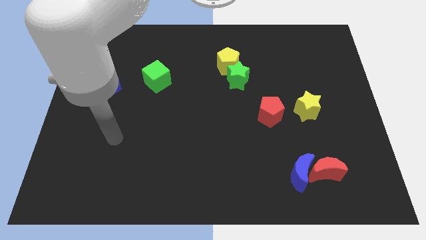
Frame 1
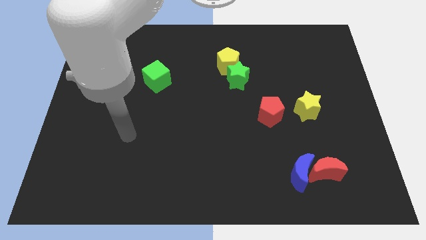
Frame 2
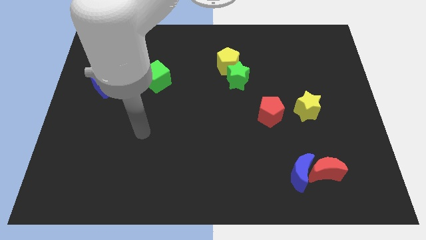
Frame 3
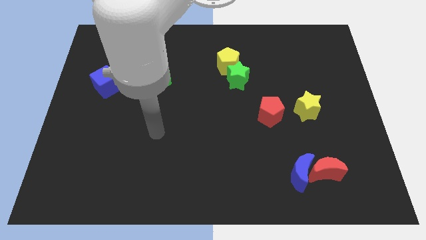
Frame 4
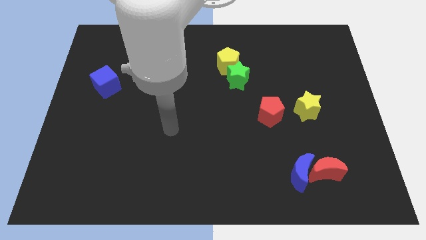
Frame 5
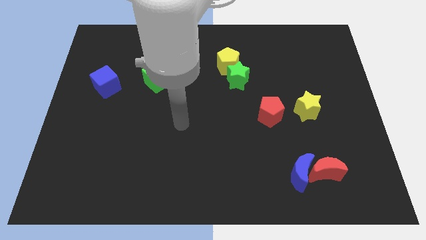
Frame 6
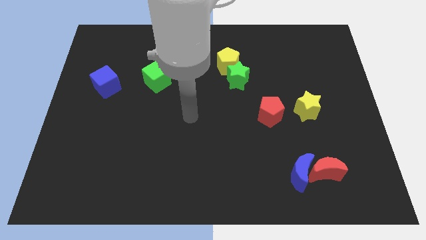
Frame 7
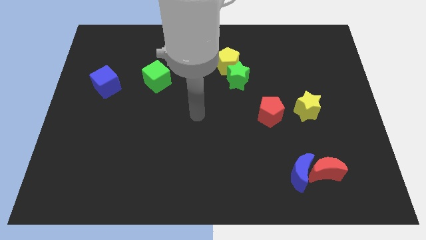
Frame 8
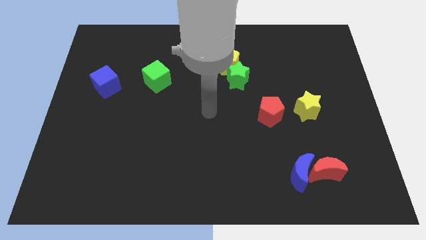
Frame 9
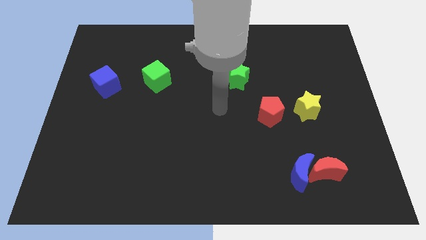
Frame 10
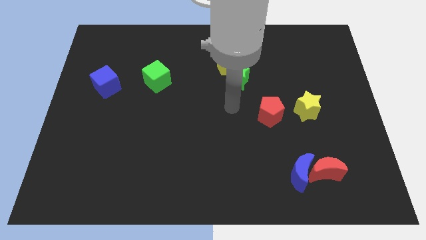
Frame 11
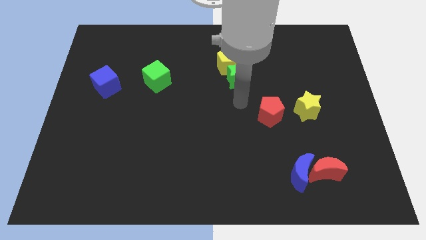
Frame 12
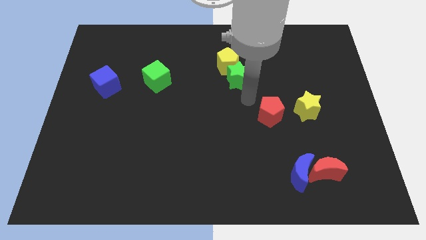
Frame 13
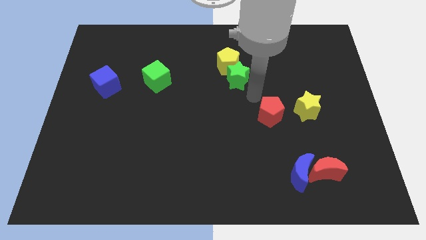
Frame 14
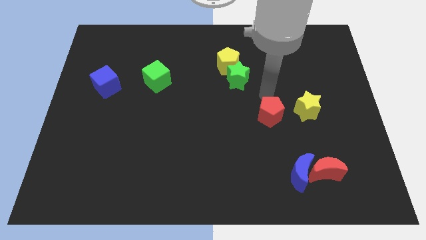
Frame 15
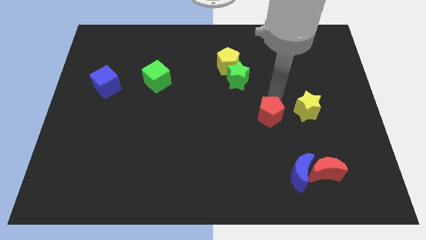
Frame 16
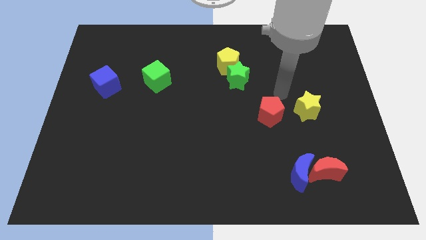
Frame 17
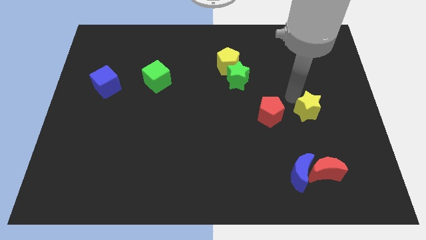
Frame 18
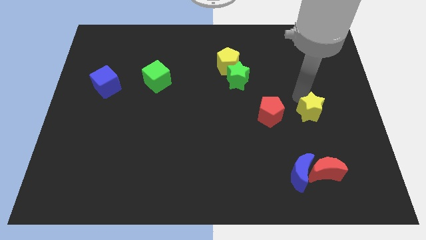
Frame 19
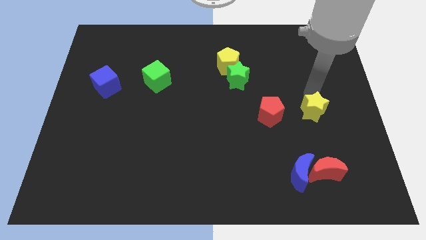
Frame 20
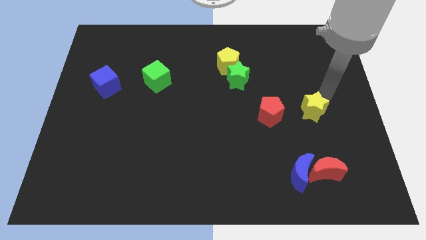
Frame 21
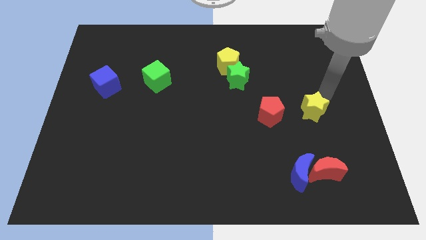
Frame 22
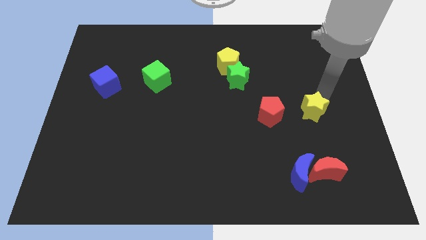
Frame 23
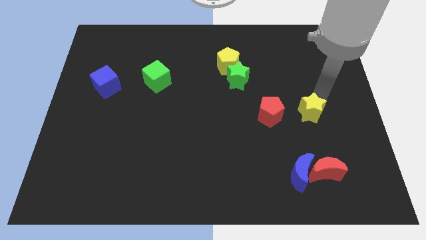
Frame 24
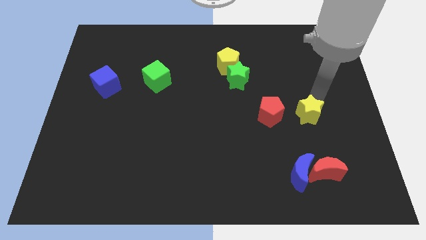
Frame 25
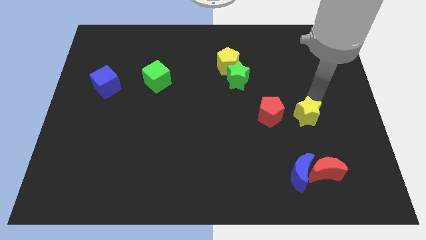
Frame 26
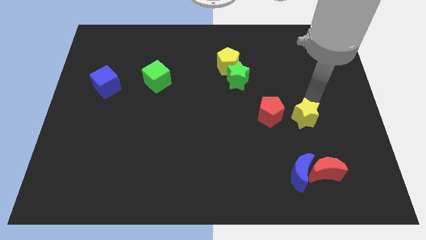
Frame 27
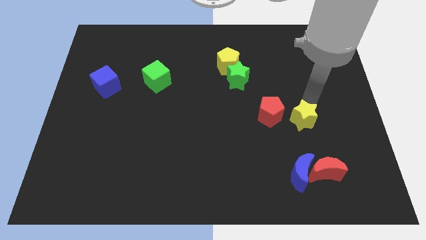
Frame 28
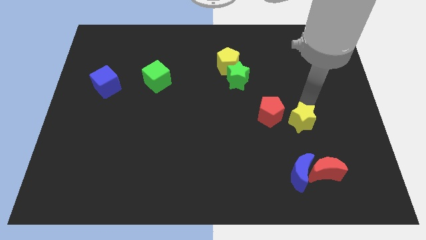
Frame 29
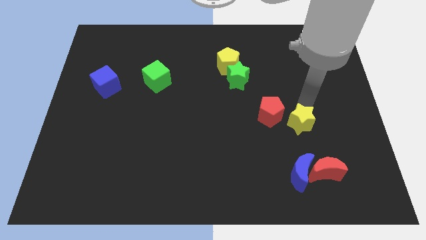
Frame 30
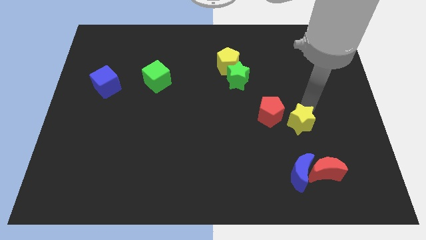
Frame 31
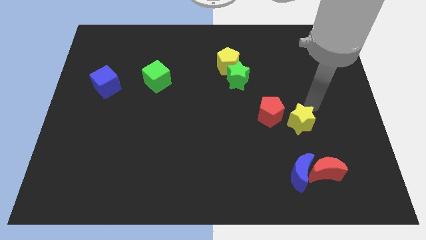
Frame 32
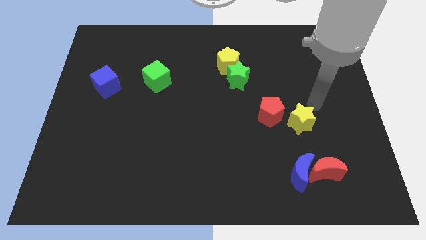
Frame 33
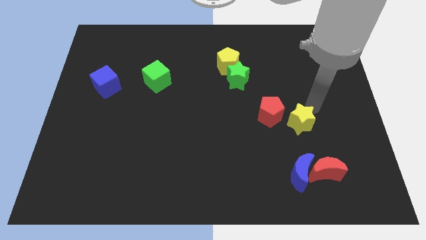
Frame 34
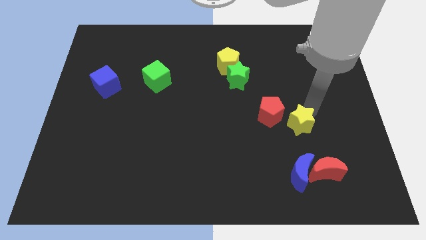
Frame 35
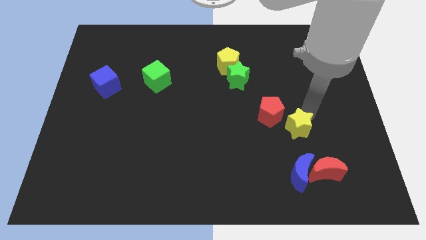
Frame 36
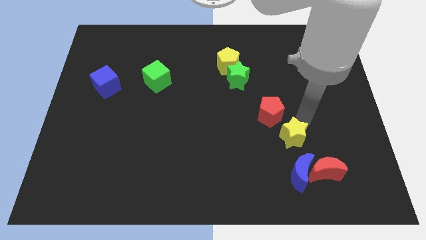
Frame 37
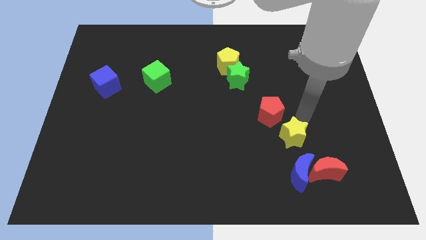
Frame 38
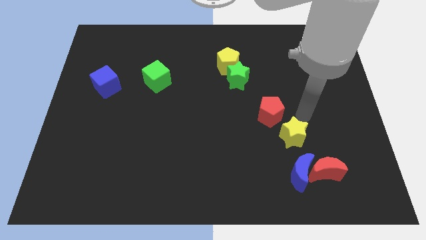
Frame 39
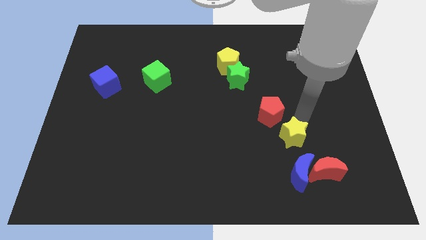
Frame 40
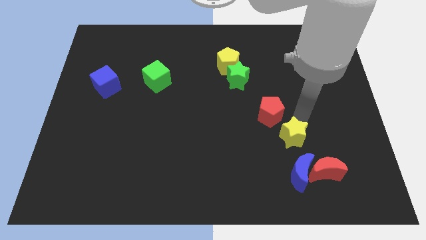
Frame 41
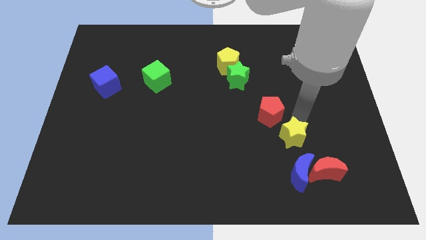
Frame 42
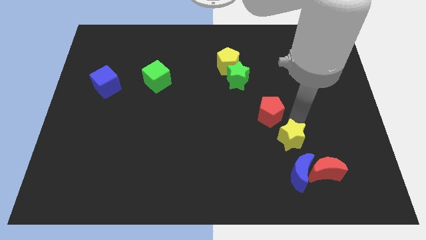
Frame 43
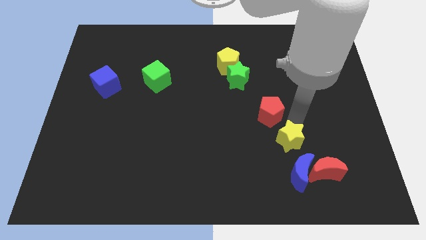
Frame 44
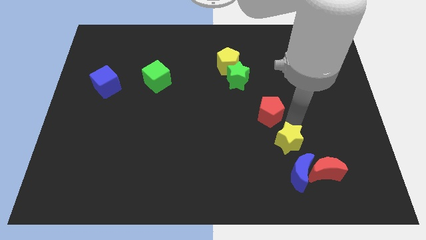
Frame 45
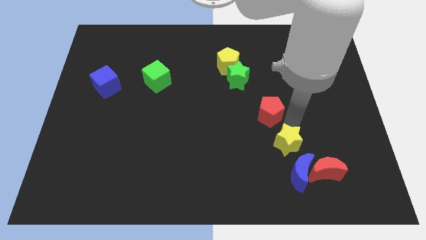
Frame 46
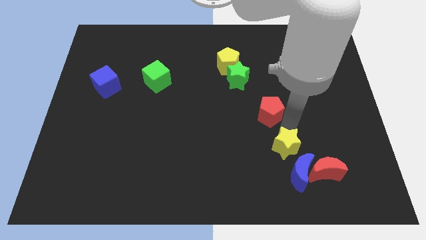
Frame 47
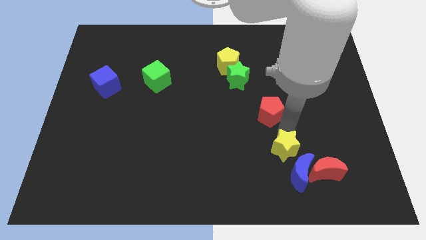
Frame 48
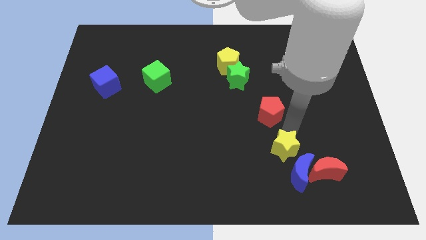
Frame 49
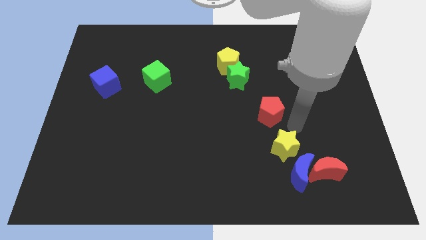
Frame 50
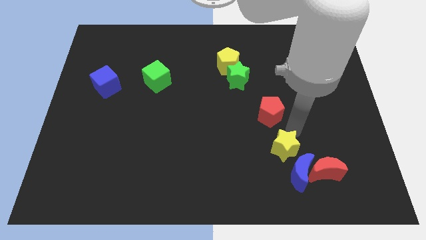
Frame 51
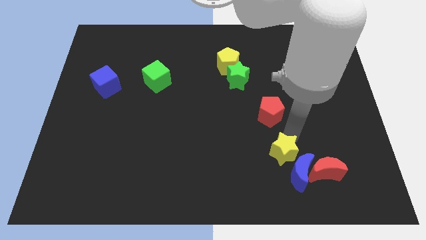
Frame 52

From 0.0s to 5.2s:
slide the yellow star left of the red moon

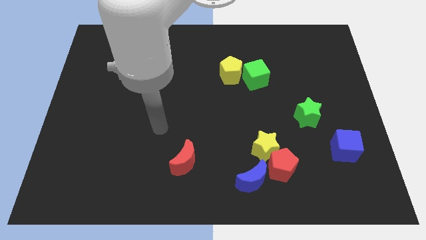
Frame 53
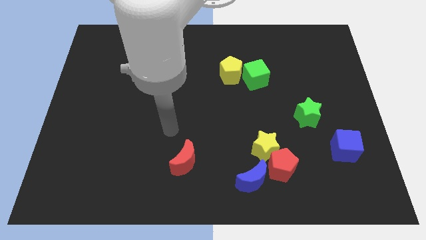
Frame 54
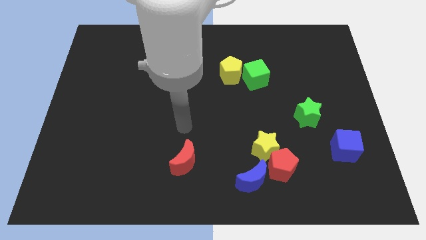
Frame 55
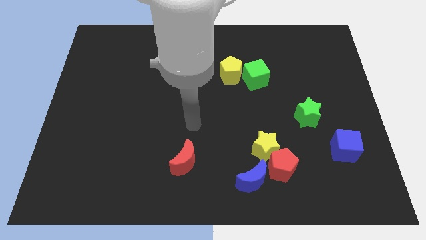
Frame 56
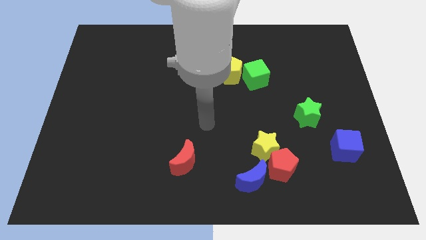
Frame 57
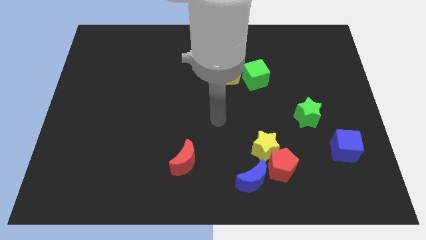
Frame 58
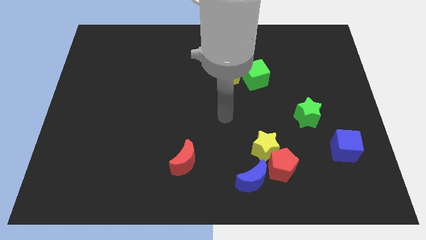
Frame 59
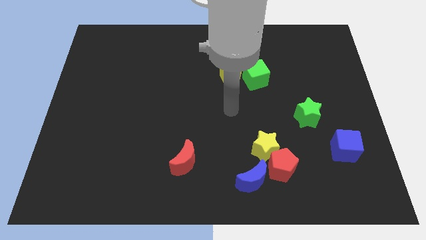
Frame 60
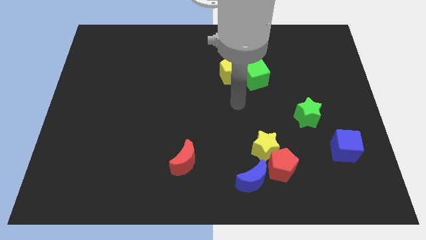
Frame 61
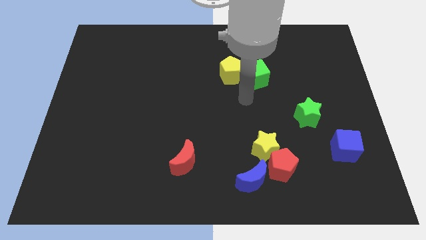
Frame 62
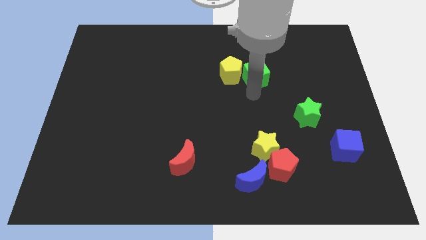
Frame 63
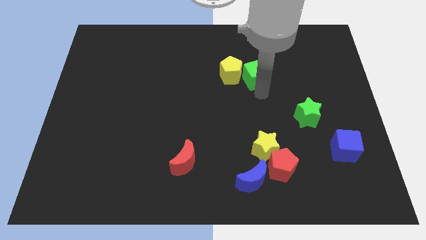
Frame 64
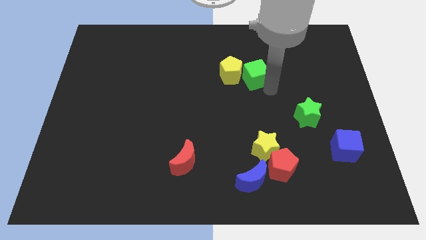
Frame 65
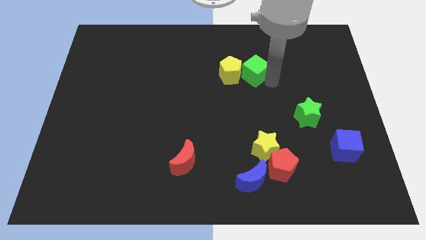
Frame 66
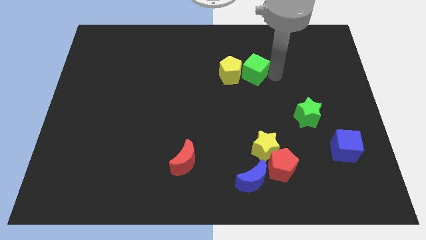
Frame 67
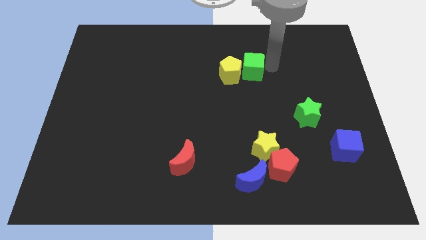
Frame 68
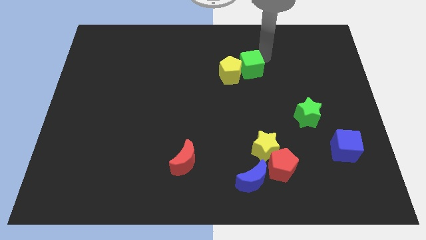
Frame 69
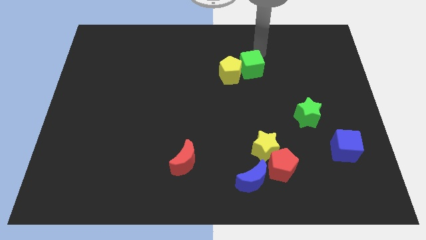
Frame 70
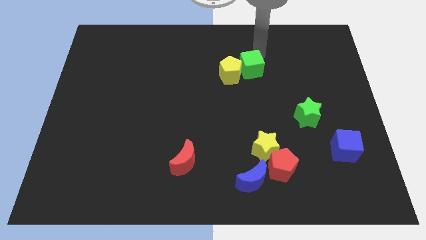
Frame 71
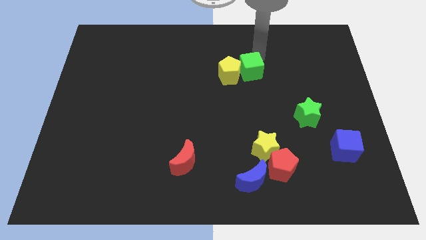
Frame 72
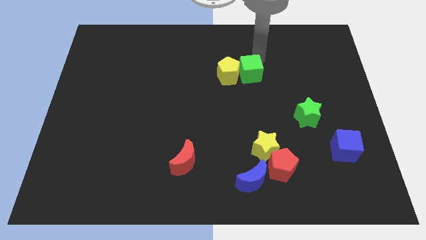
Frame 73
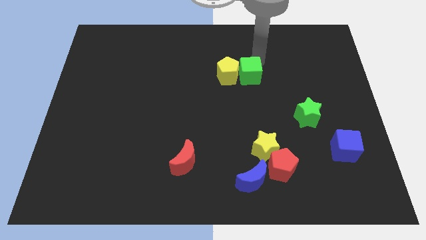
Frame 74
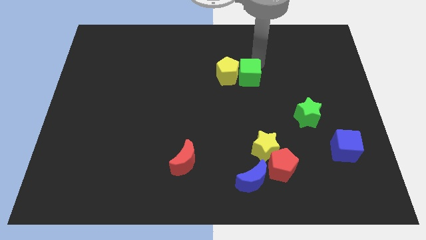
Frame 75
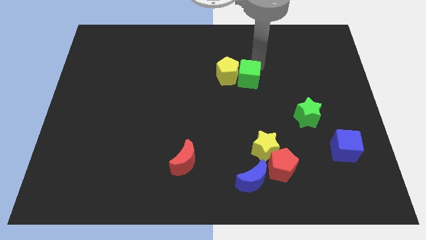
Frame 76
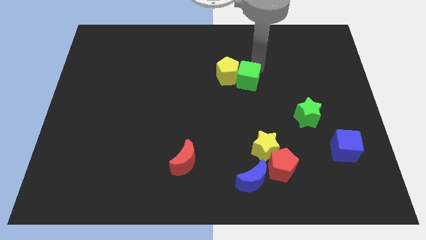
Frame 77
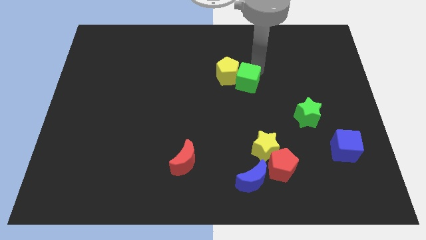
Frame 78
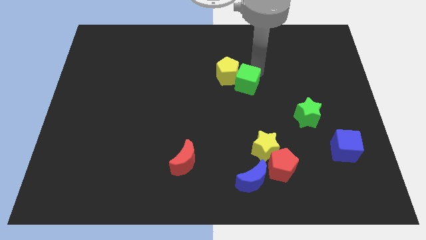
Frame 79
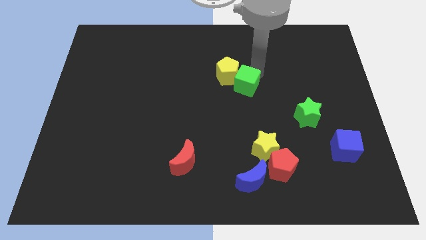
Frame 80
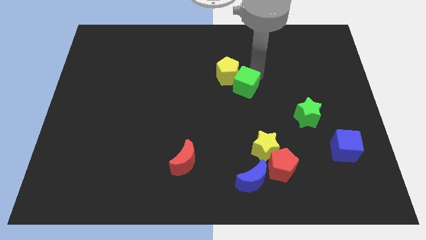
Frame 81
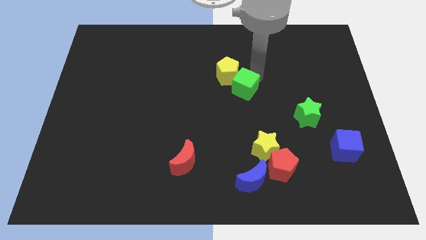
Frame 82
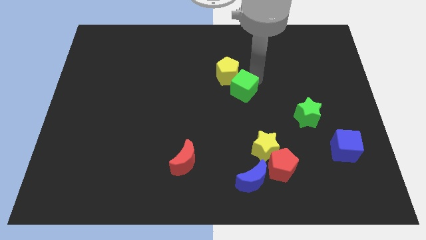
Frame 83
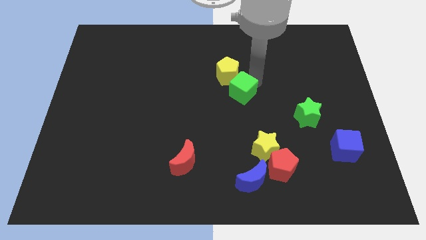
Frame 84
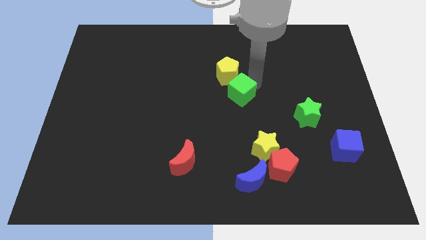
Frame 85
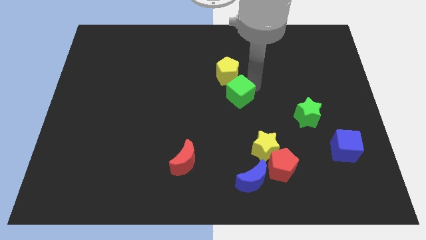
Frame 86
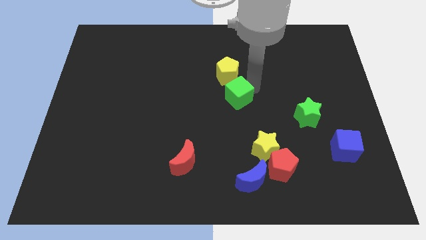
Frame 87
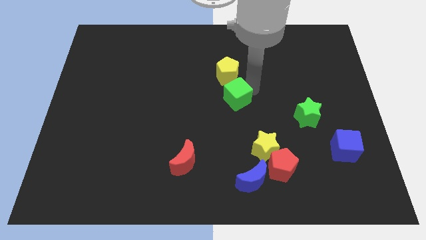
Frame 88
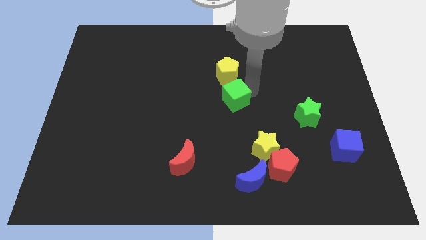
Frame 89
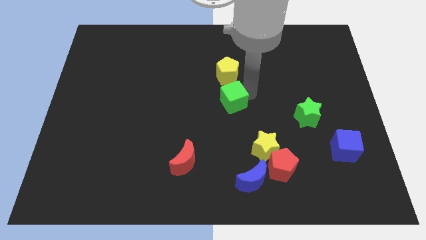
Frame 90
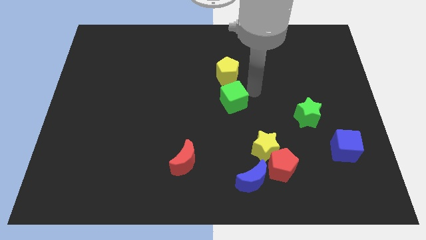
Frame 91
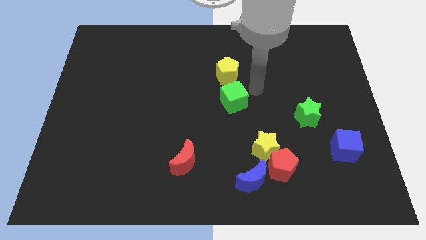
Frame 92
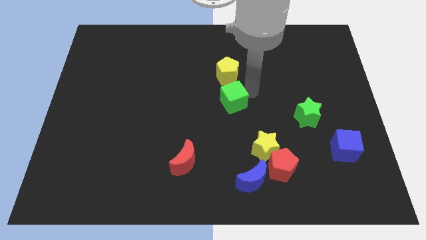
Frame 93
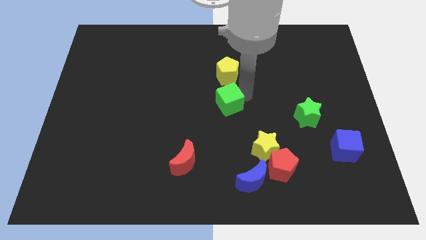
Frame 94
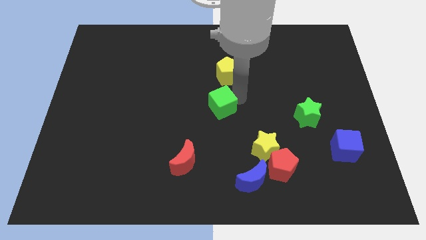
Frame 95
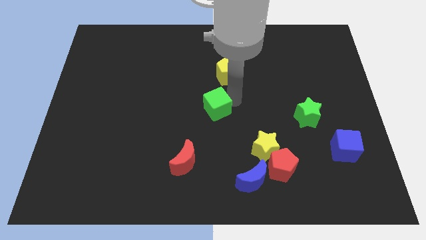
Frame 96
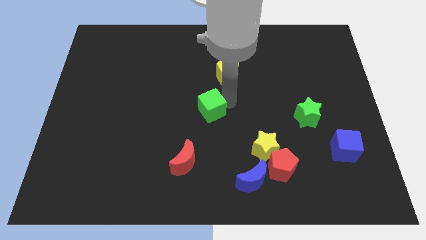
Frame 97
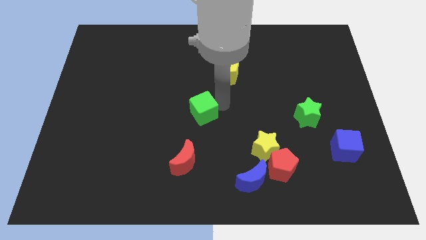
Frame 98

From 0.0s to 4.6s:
push the green cube above the red moon
